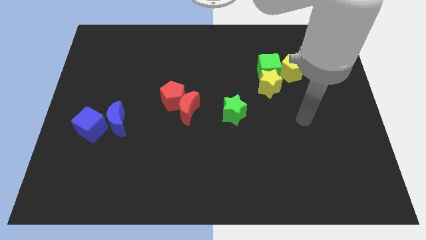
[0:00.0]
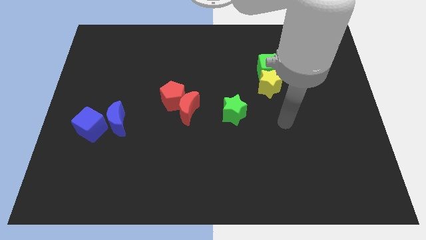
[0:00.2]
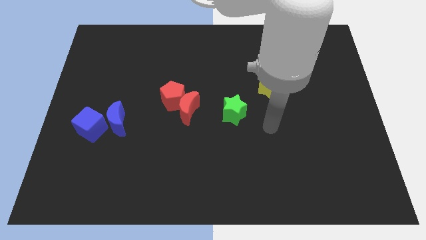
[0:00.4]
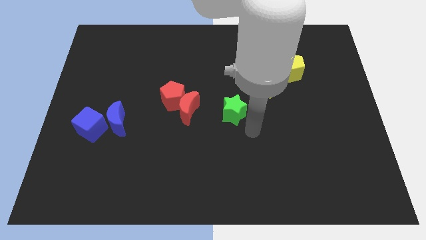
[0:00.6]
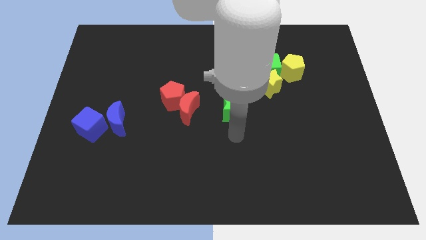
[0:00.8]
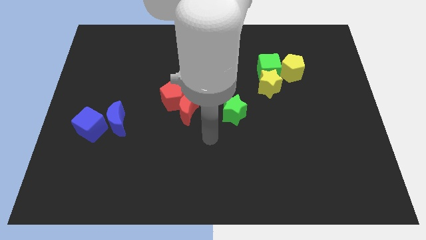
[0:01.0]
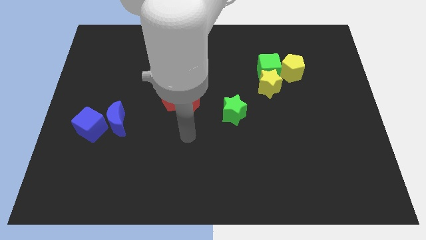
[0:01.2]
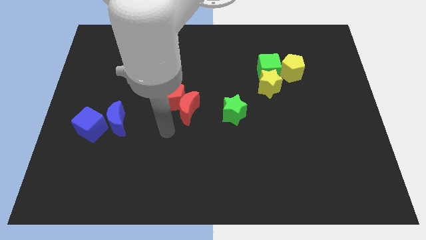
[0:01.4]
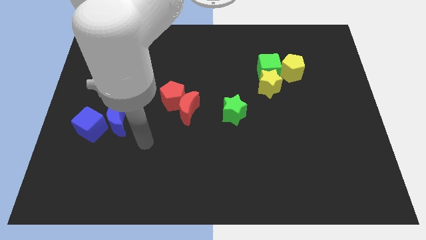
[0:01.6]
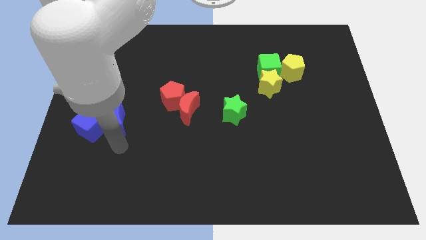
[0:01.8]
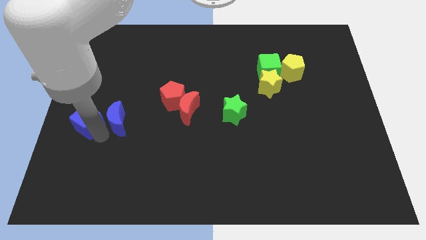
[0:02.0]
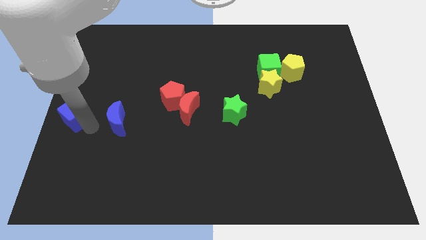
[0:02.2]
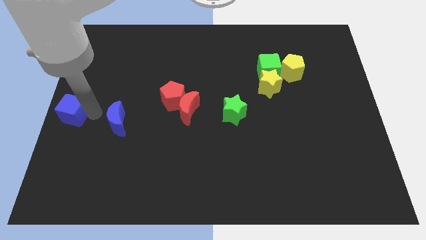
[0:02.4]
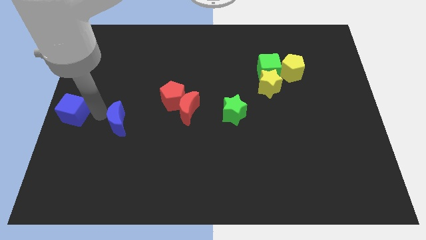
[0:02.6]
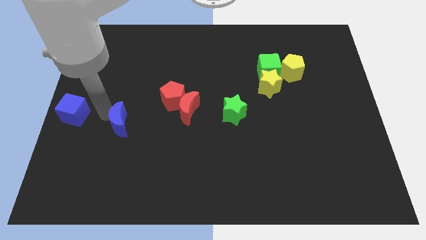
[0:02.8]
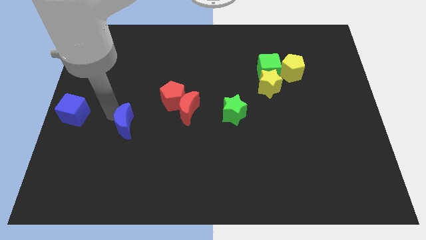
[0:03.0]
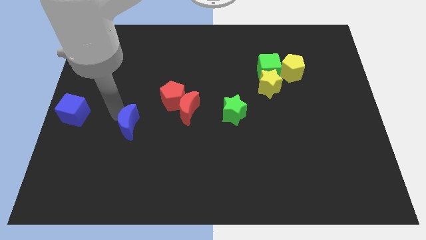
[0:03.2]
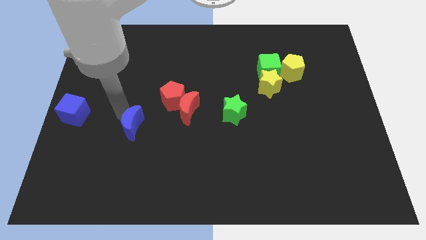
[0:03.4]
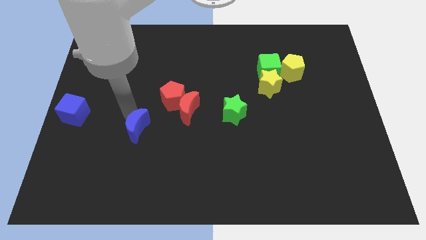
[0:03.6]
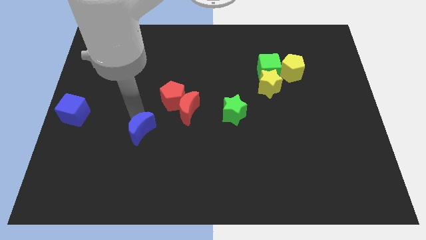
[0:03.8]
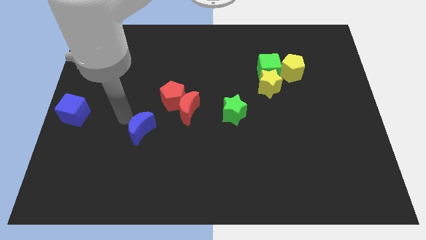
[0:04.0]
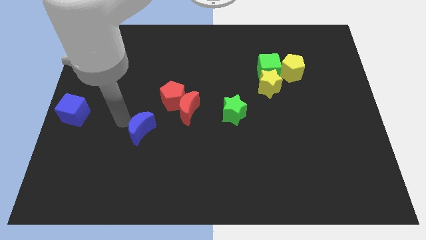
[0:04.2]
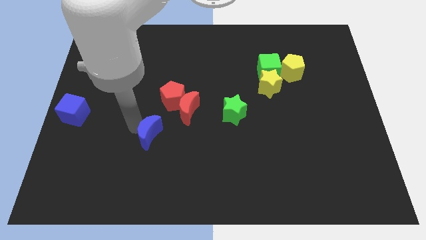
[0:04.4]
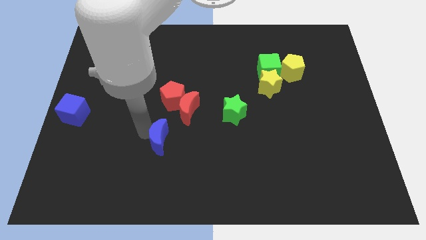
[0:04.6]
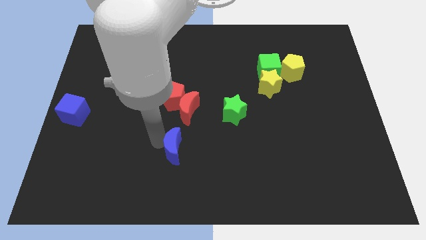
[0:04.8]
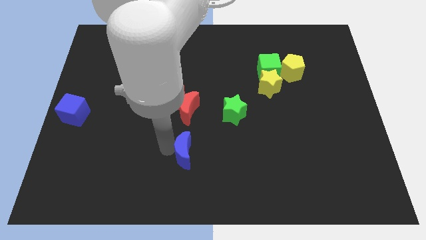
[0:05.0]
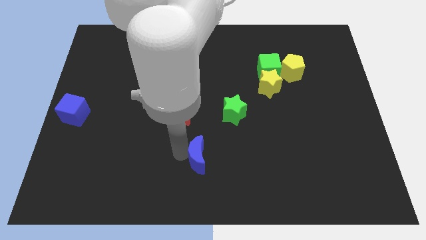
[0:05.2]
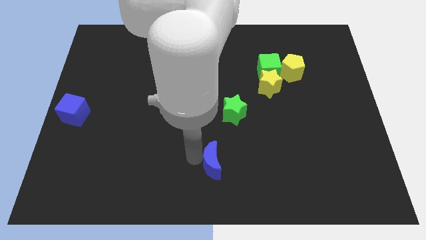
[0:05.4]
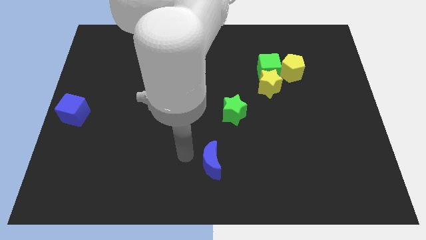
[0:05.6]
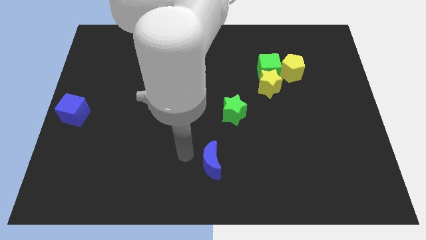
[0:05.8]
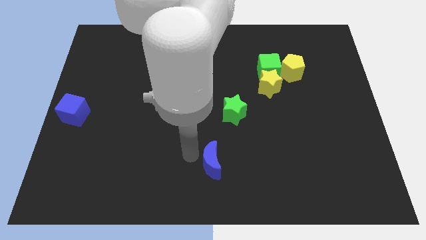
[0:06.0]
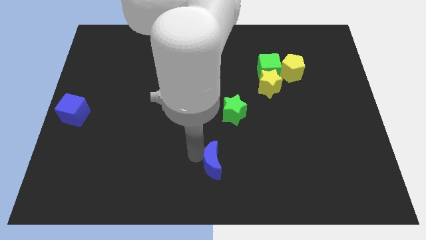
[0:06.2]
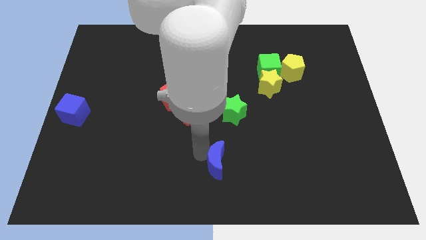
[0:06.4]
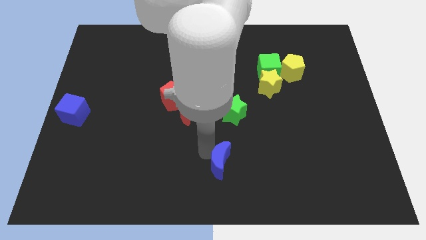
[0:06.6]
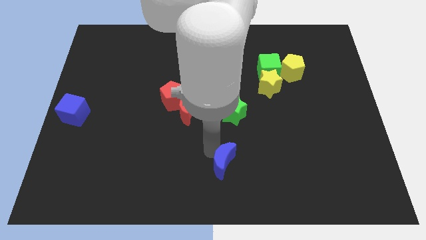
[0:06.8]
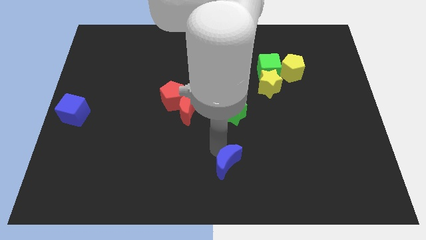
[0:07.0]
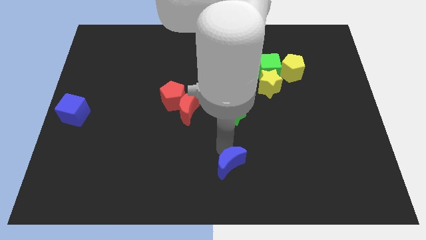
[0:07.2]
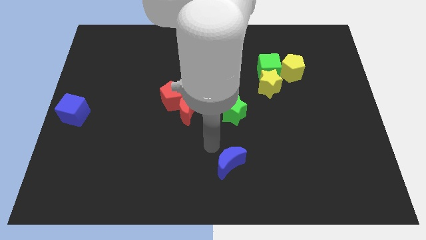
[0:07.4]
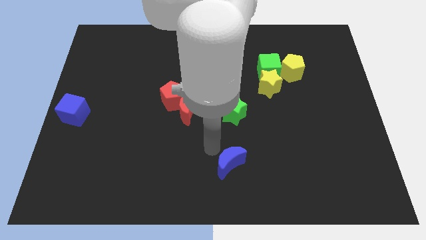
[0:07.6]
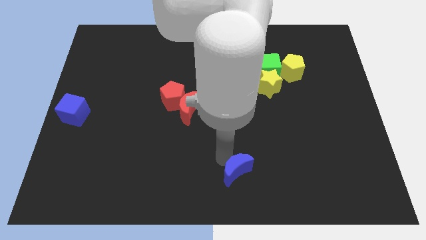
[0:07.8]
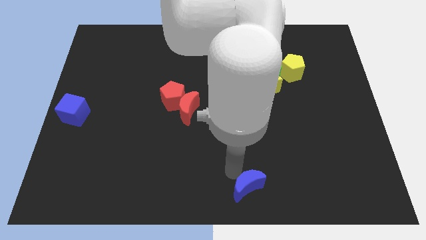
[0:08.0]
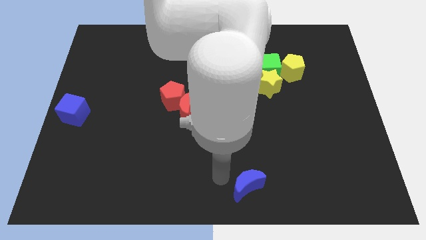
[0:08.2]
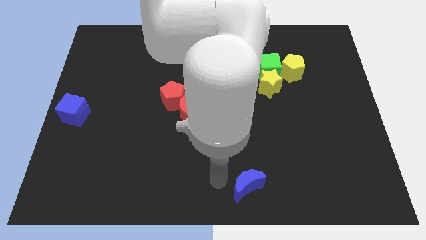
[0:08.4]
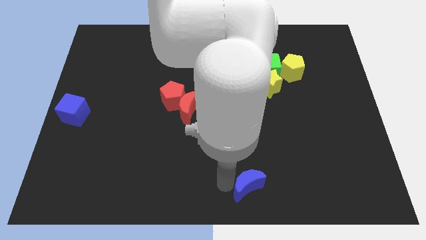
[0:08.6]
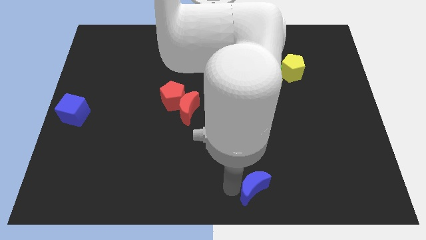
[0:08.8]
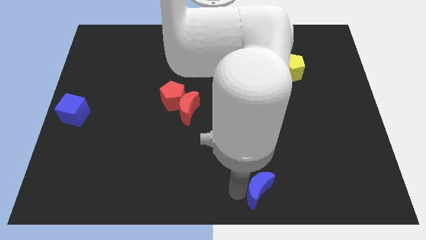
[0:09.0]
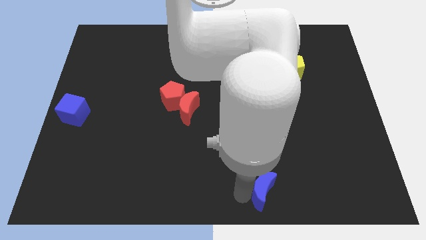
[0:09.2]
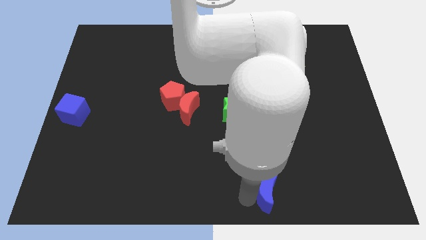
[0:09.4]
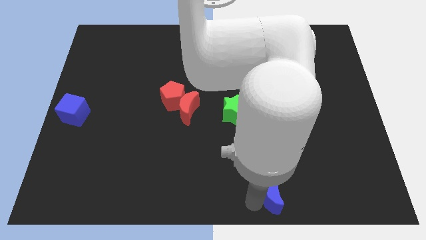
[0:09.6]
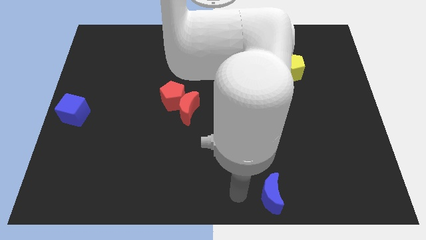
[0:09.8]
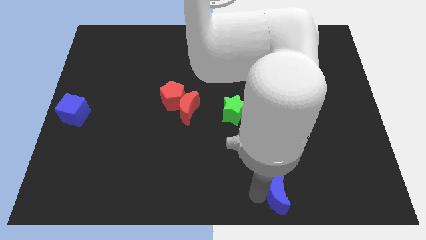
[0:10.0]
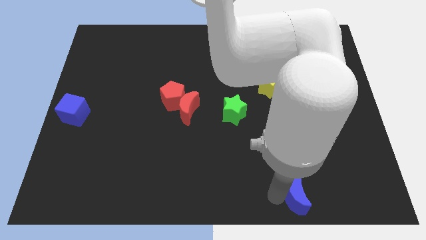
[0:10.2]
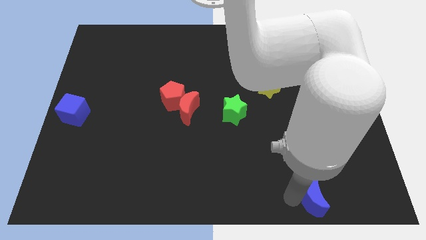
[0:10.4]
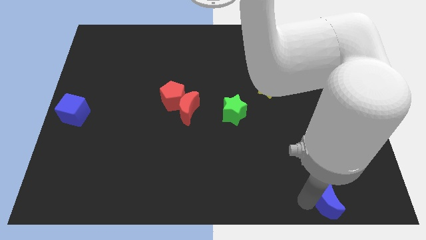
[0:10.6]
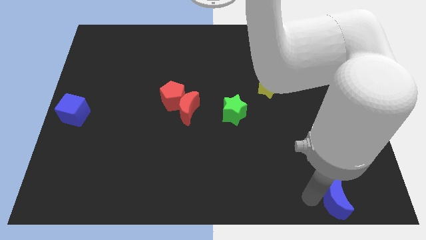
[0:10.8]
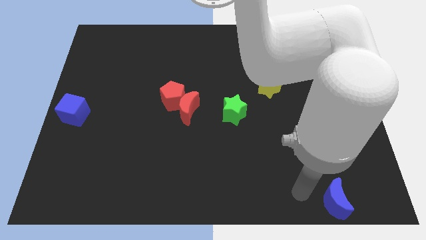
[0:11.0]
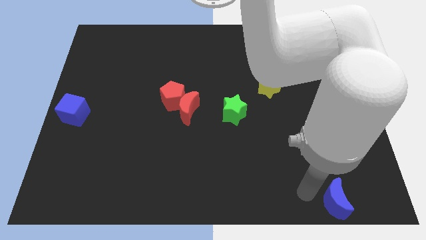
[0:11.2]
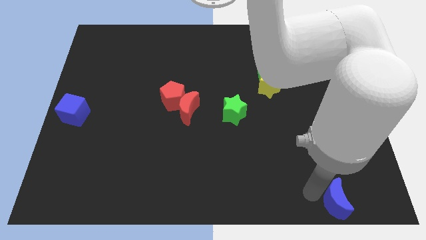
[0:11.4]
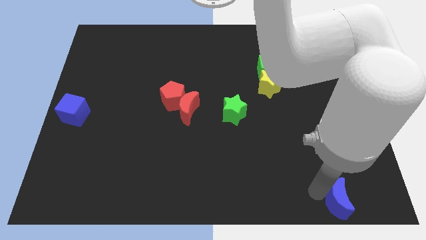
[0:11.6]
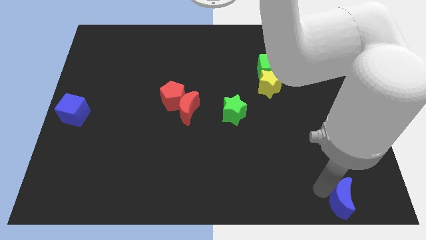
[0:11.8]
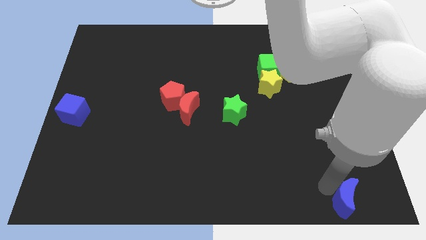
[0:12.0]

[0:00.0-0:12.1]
put the blue moon to the bottom right of the board
